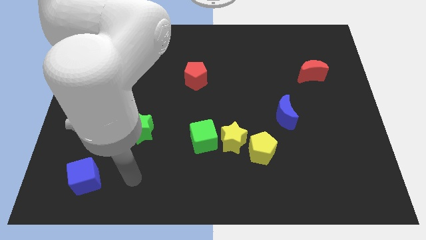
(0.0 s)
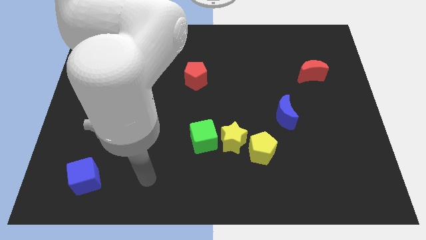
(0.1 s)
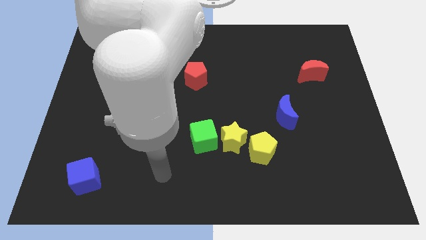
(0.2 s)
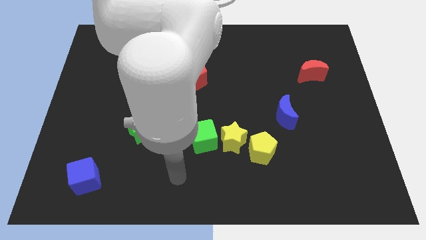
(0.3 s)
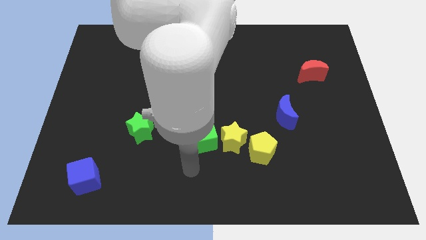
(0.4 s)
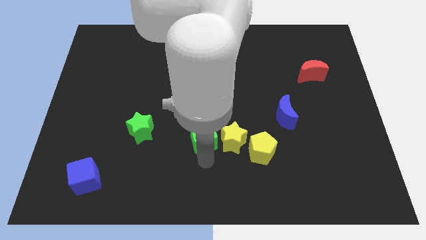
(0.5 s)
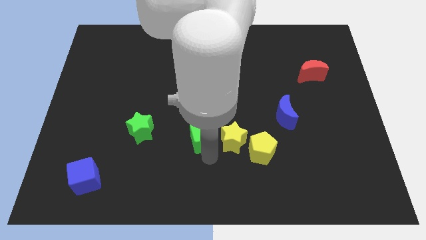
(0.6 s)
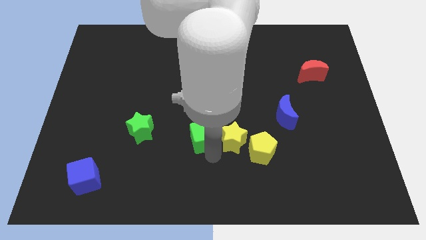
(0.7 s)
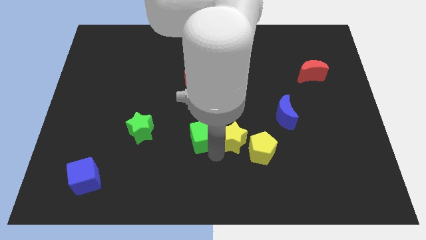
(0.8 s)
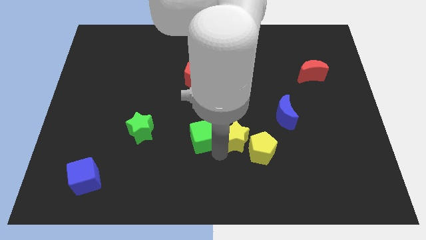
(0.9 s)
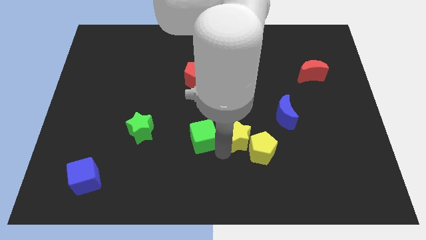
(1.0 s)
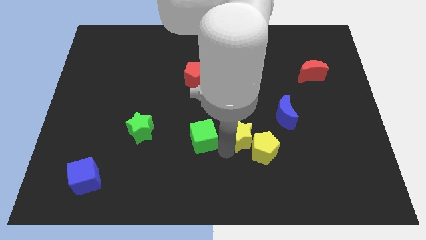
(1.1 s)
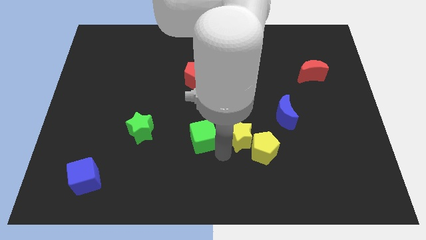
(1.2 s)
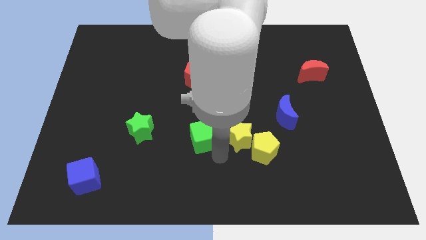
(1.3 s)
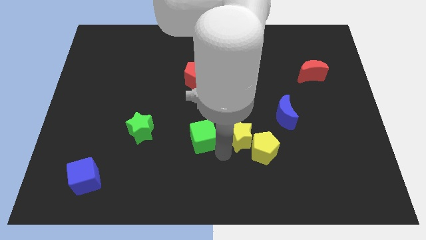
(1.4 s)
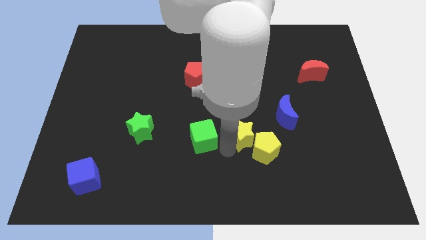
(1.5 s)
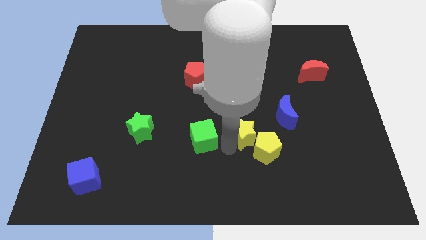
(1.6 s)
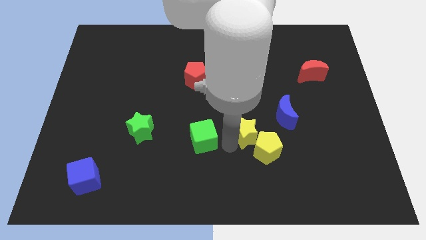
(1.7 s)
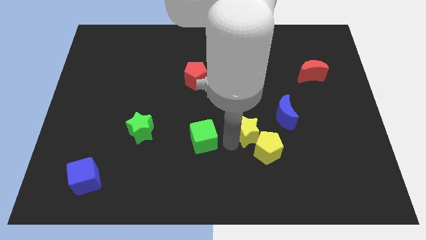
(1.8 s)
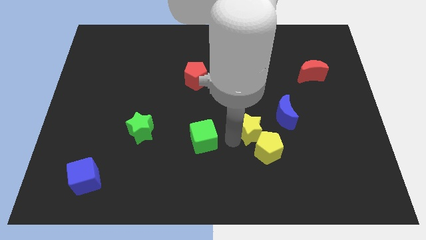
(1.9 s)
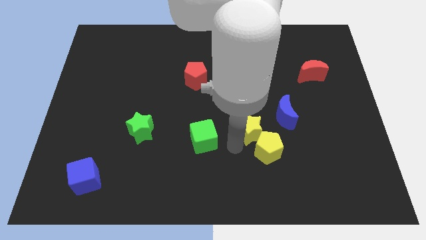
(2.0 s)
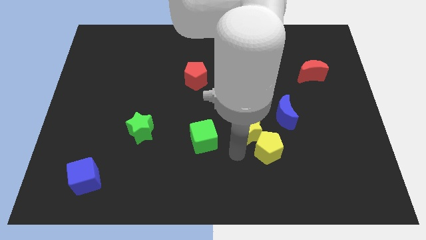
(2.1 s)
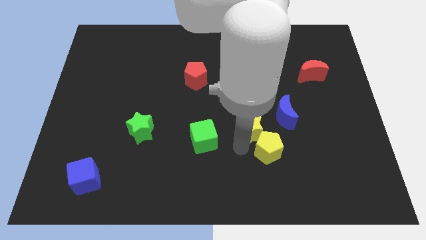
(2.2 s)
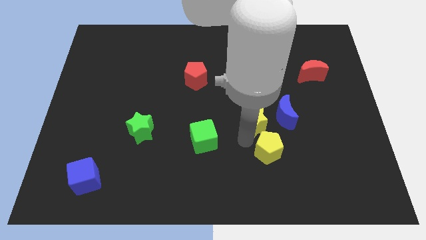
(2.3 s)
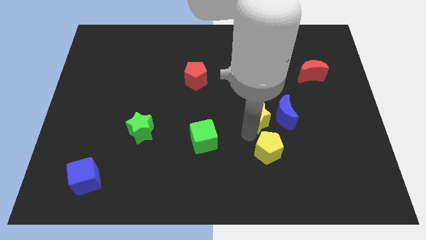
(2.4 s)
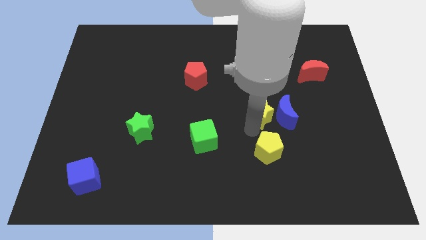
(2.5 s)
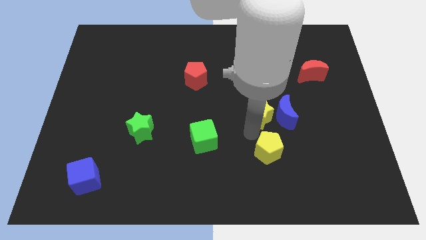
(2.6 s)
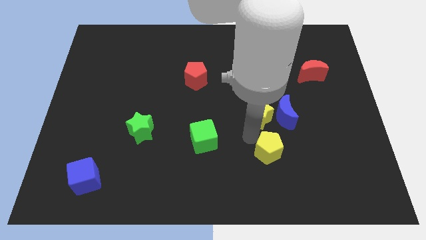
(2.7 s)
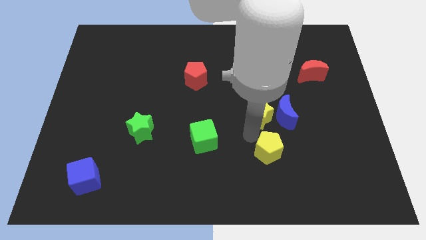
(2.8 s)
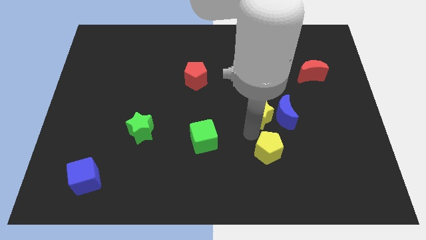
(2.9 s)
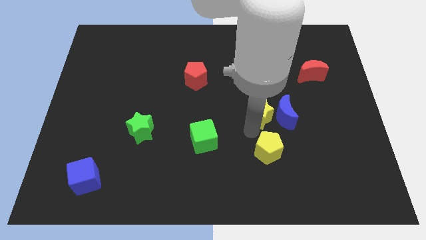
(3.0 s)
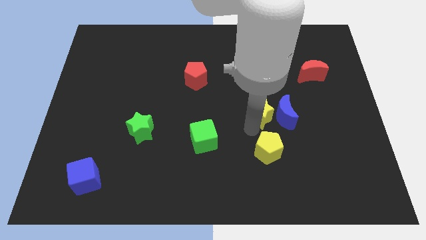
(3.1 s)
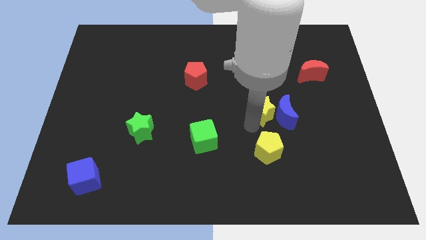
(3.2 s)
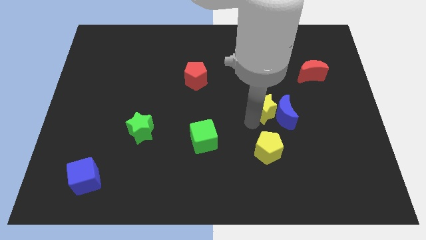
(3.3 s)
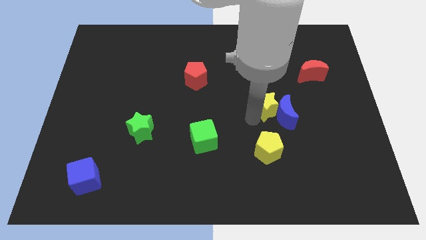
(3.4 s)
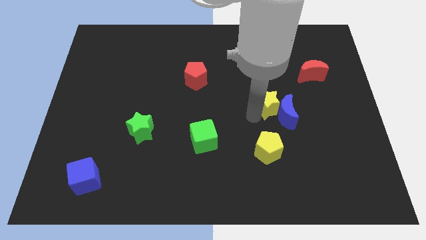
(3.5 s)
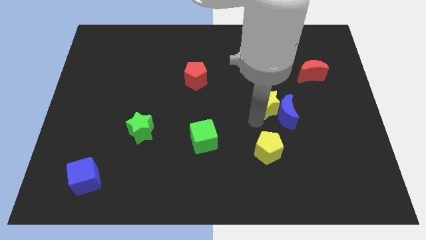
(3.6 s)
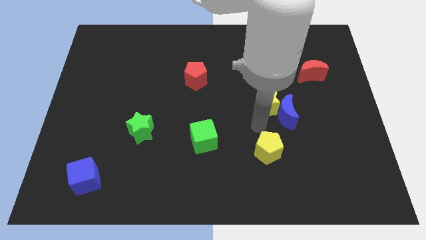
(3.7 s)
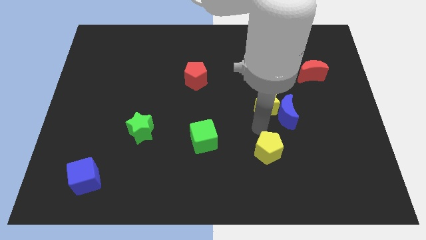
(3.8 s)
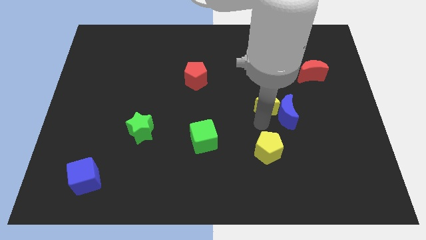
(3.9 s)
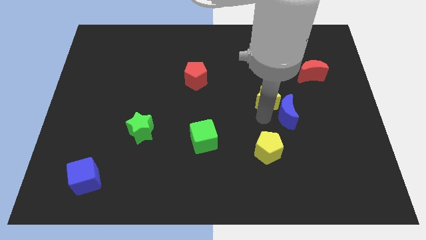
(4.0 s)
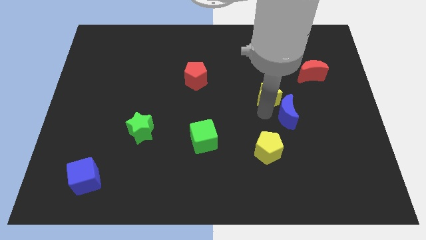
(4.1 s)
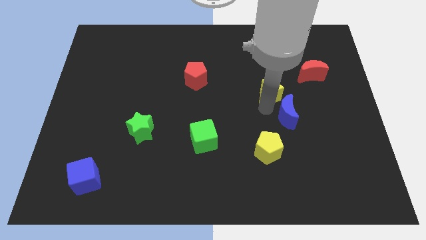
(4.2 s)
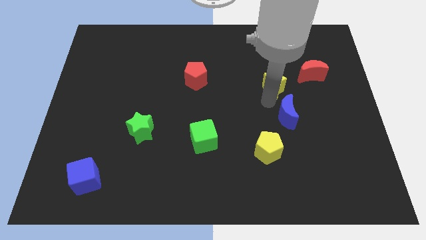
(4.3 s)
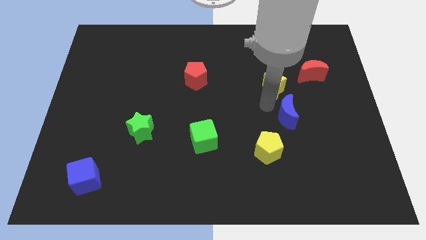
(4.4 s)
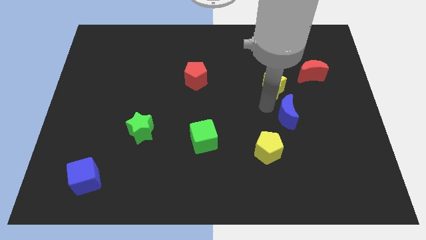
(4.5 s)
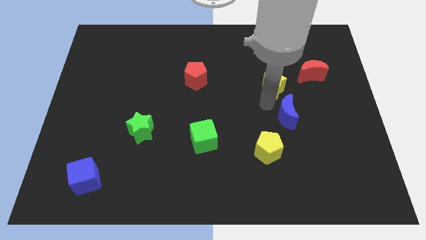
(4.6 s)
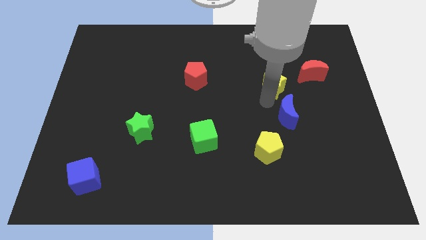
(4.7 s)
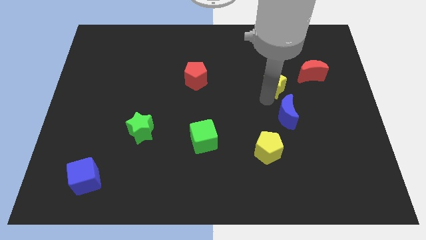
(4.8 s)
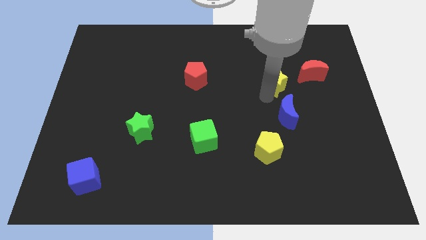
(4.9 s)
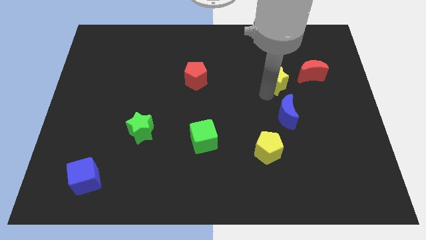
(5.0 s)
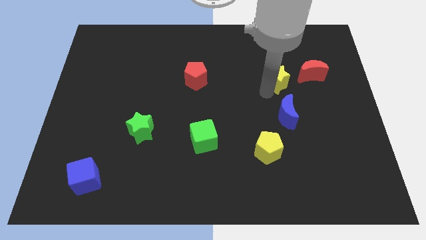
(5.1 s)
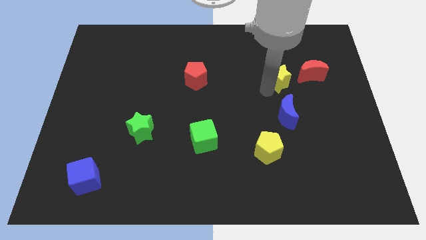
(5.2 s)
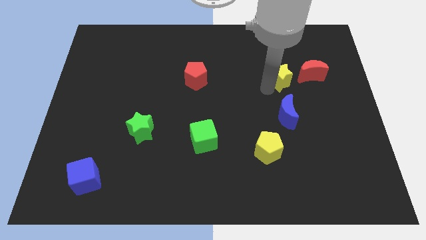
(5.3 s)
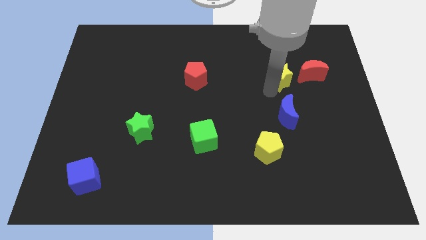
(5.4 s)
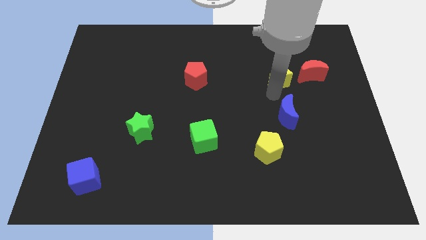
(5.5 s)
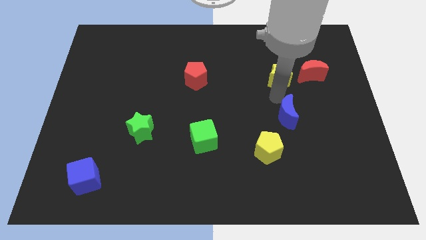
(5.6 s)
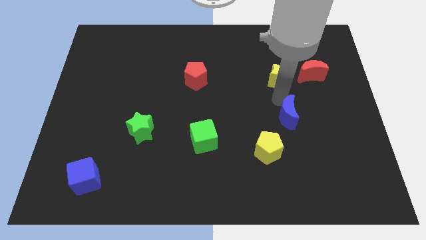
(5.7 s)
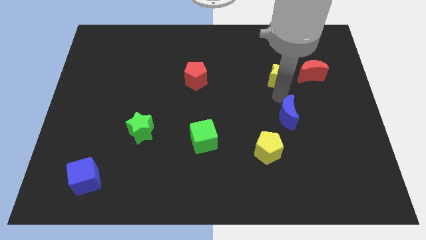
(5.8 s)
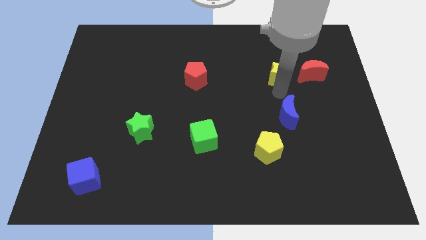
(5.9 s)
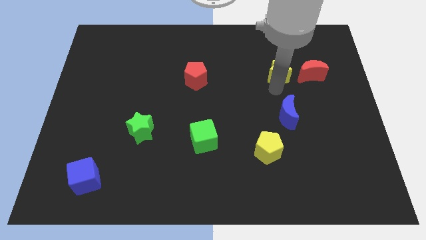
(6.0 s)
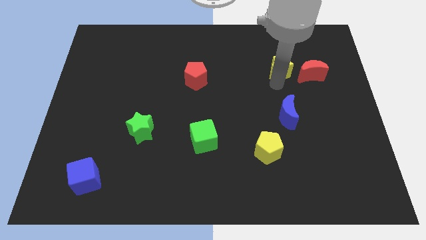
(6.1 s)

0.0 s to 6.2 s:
push the yellow star diagonally up and to the left of the red moon

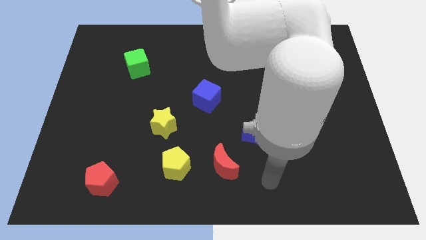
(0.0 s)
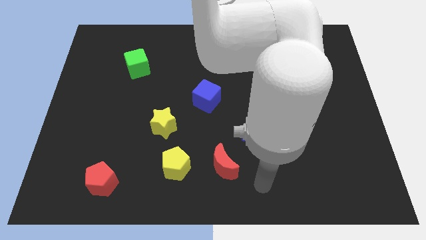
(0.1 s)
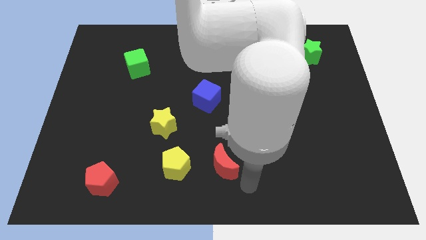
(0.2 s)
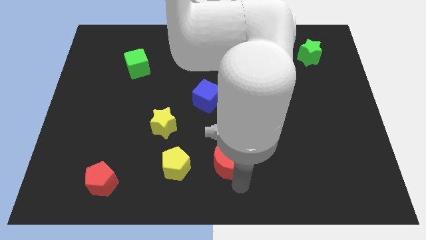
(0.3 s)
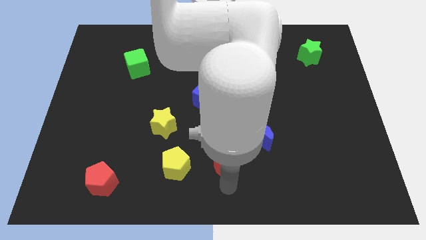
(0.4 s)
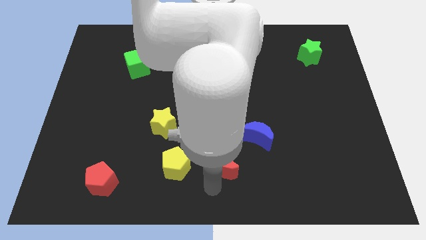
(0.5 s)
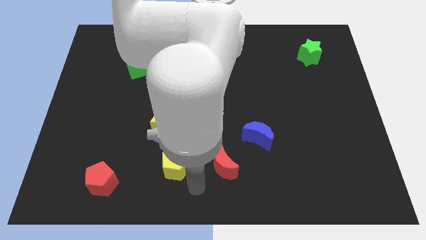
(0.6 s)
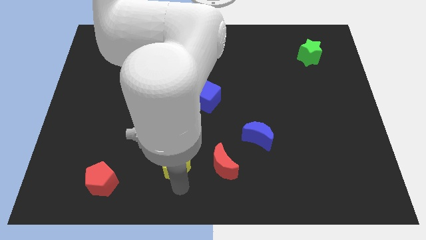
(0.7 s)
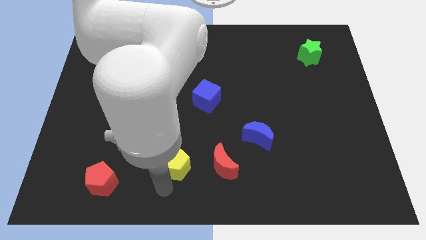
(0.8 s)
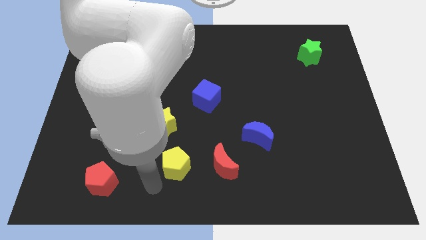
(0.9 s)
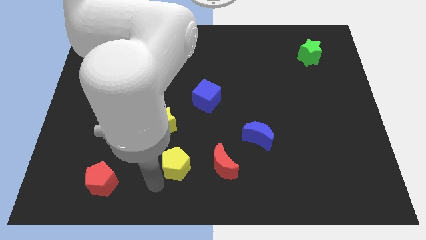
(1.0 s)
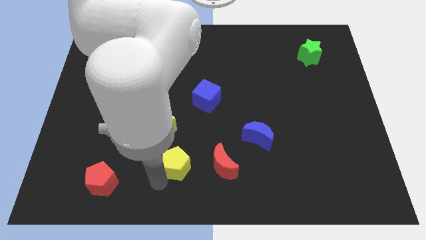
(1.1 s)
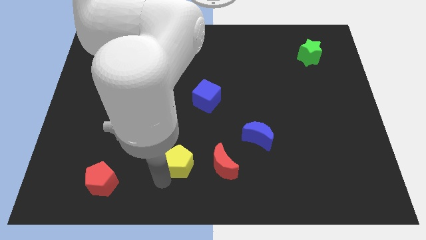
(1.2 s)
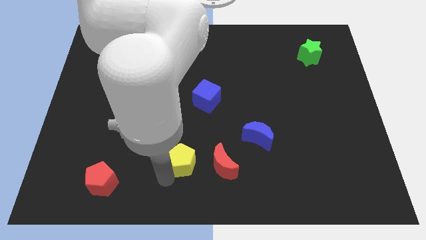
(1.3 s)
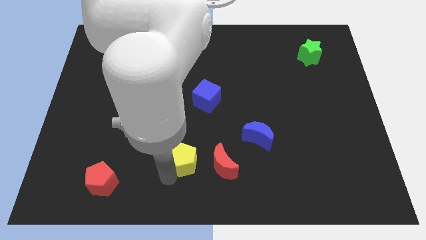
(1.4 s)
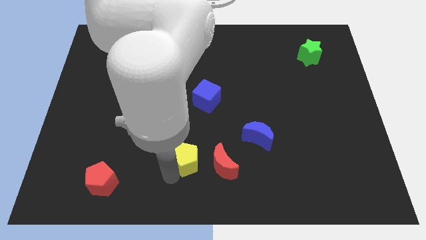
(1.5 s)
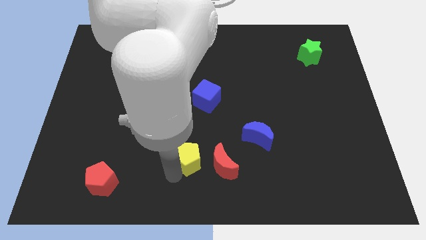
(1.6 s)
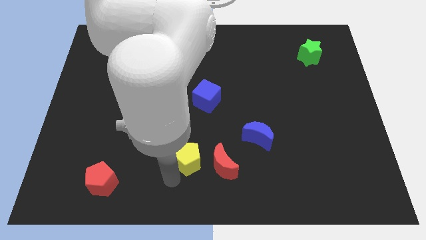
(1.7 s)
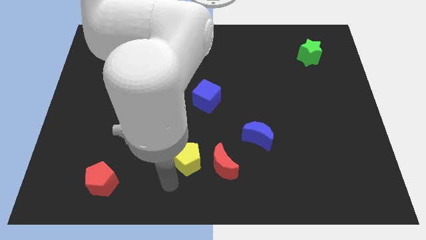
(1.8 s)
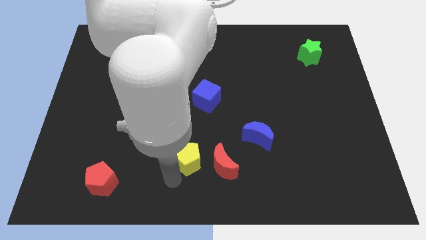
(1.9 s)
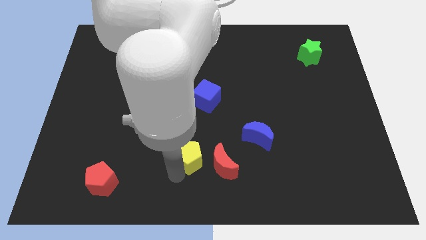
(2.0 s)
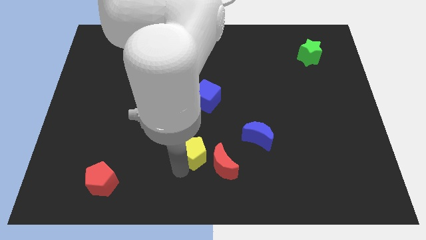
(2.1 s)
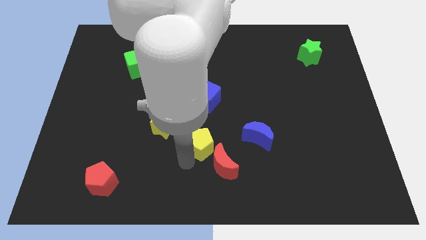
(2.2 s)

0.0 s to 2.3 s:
move the yellow pentagon above the red moon

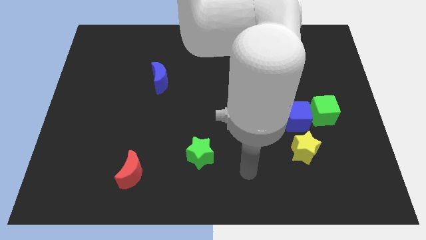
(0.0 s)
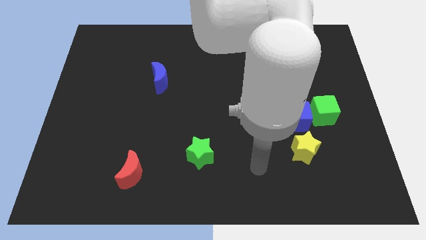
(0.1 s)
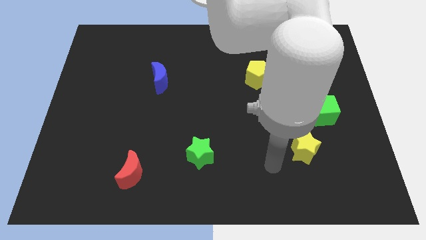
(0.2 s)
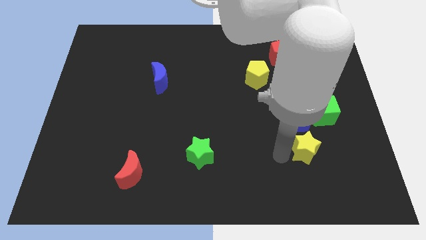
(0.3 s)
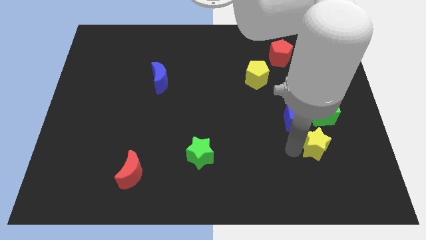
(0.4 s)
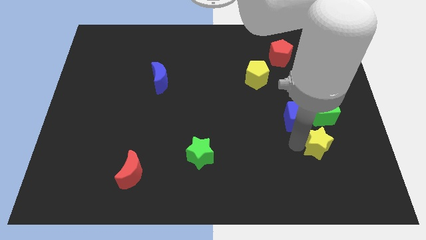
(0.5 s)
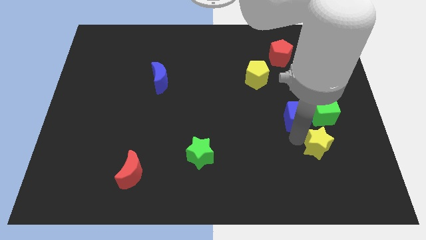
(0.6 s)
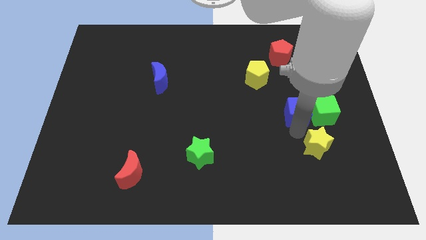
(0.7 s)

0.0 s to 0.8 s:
move the blue cube to the top left of the green cube
